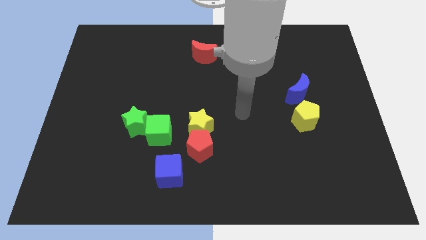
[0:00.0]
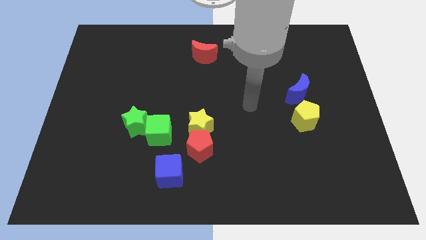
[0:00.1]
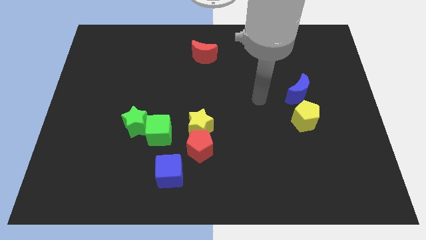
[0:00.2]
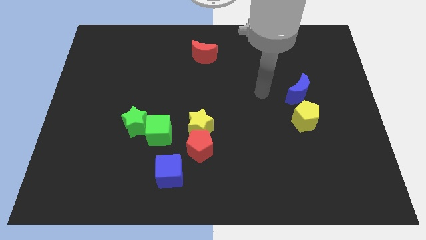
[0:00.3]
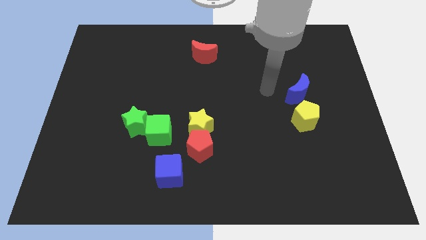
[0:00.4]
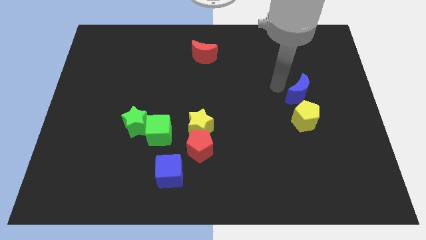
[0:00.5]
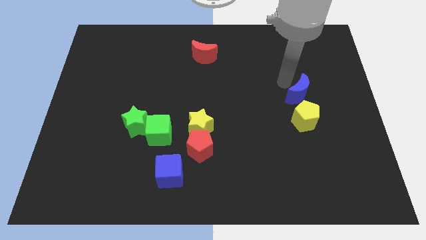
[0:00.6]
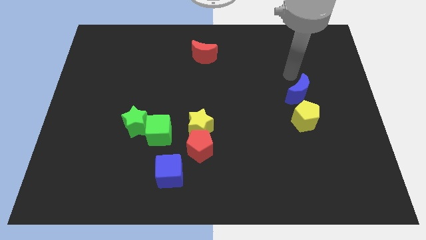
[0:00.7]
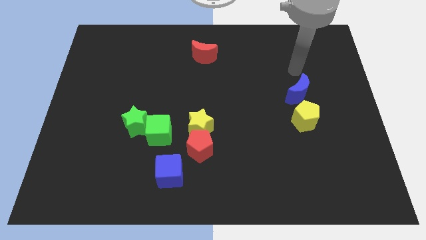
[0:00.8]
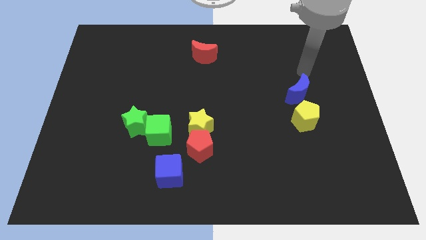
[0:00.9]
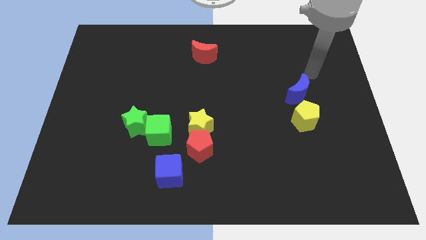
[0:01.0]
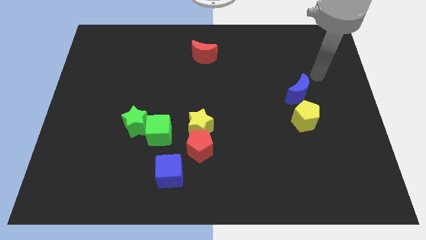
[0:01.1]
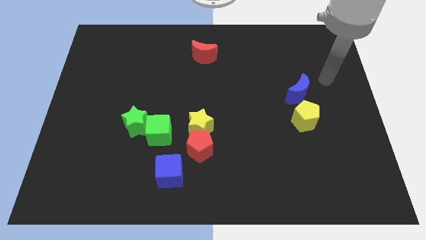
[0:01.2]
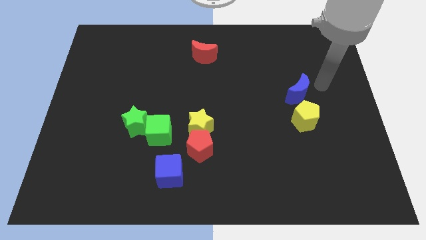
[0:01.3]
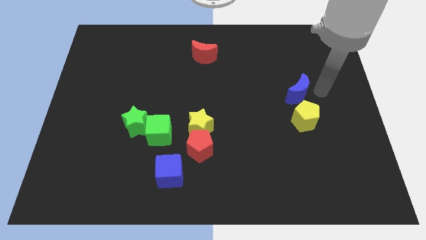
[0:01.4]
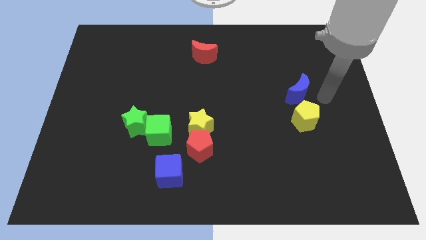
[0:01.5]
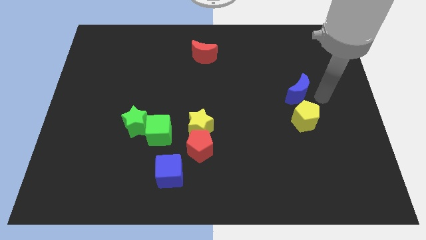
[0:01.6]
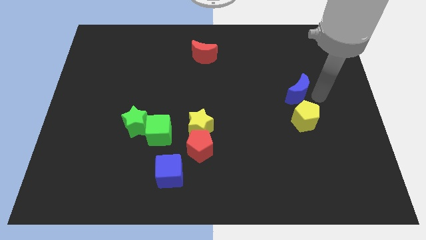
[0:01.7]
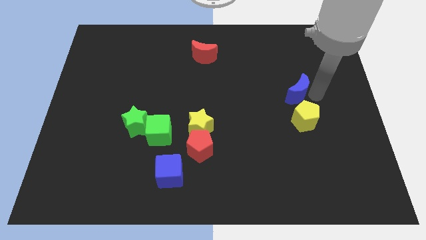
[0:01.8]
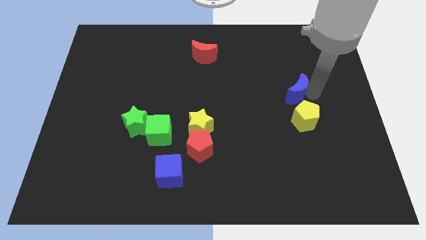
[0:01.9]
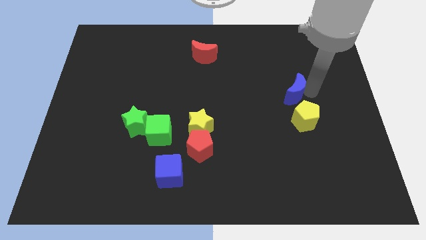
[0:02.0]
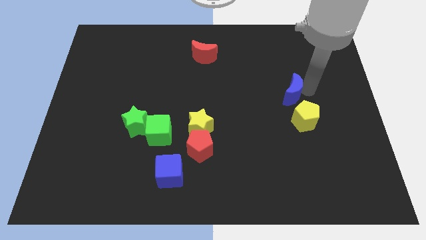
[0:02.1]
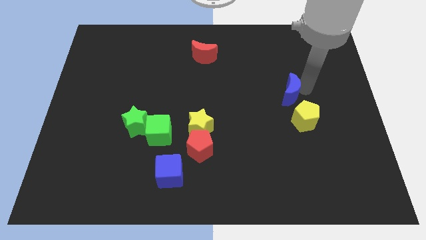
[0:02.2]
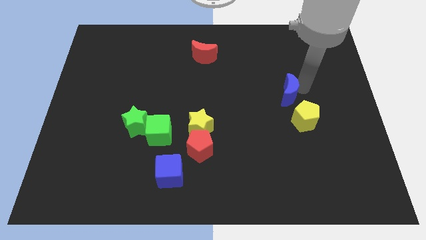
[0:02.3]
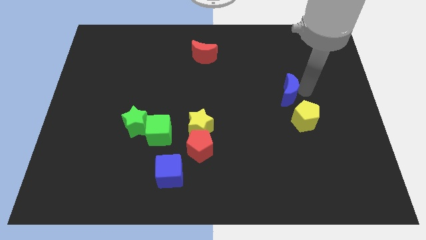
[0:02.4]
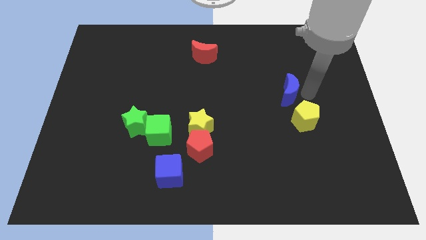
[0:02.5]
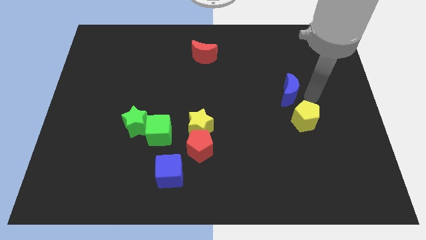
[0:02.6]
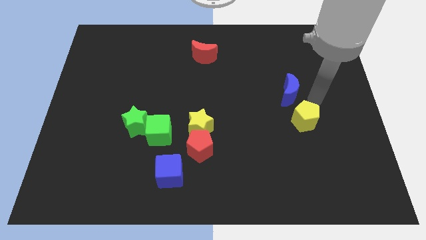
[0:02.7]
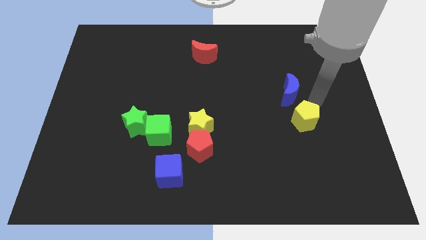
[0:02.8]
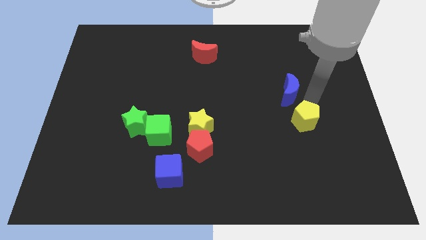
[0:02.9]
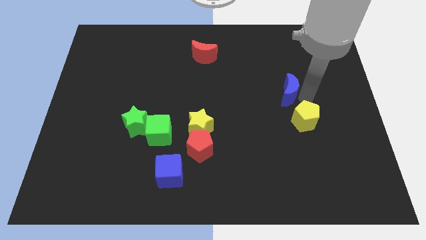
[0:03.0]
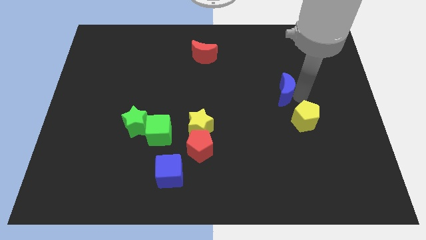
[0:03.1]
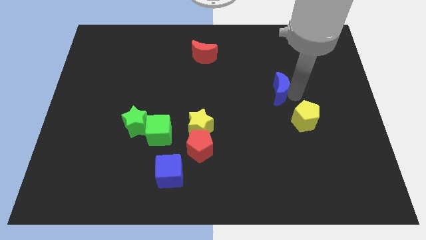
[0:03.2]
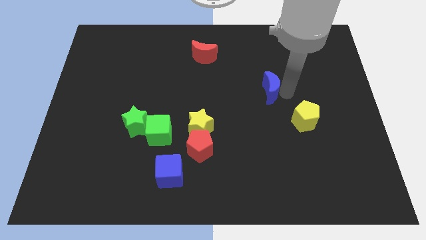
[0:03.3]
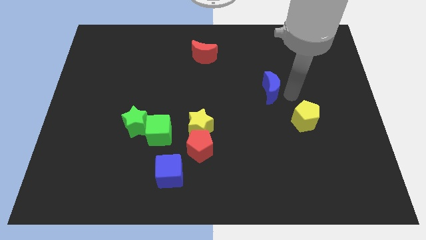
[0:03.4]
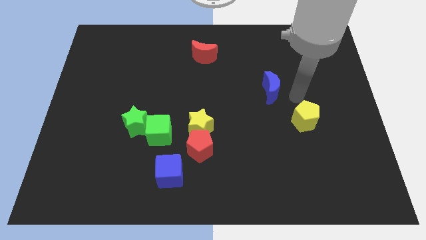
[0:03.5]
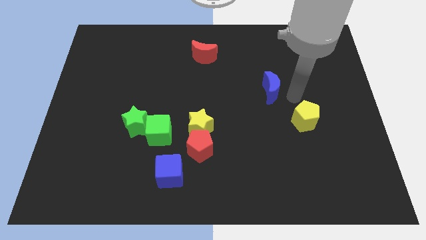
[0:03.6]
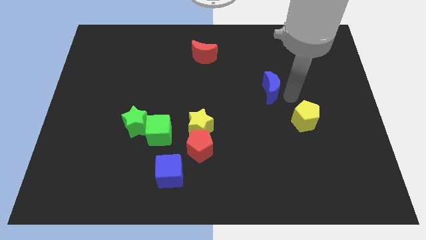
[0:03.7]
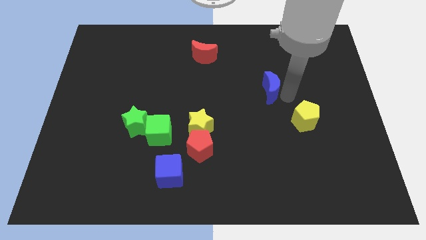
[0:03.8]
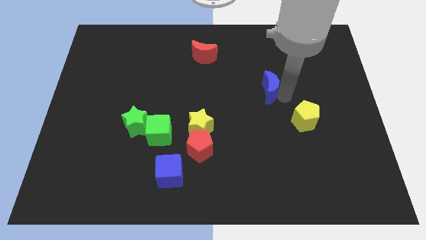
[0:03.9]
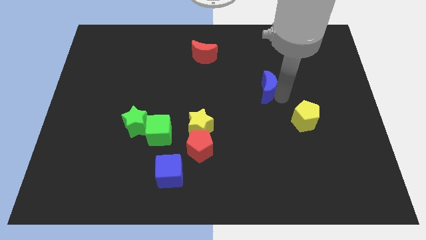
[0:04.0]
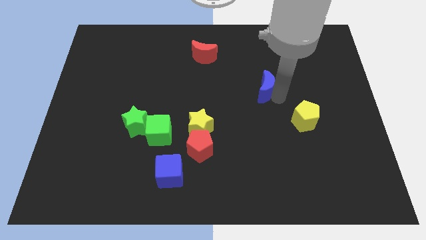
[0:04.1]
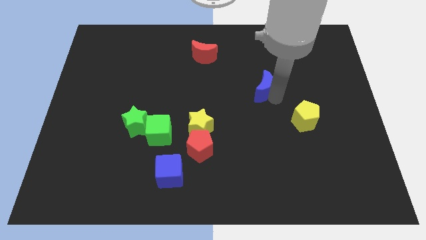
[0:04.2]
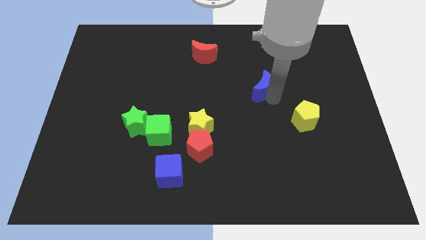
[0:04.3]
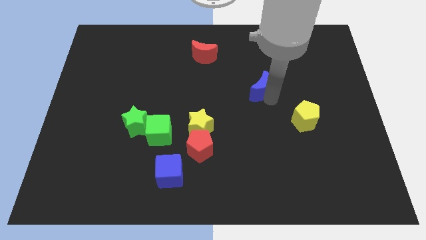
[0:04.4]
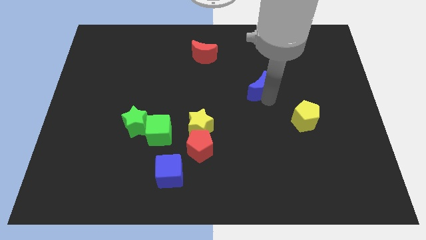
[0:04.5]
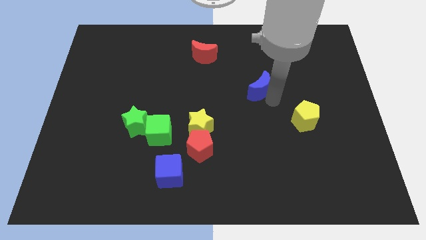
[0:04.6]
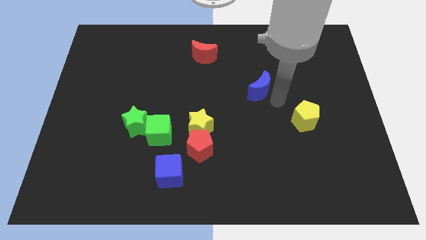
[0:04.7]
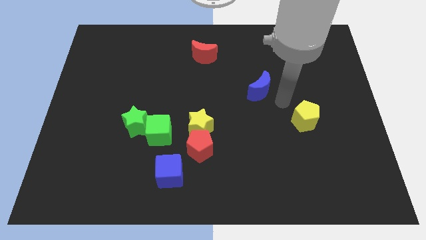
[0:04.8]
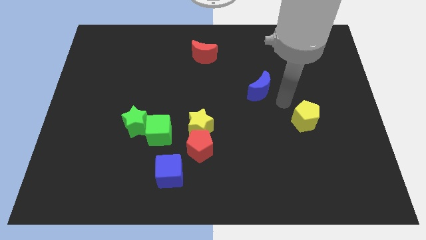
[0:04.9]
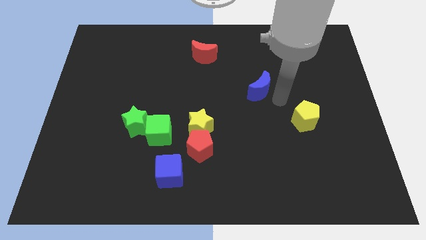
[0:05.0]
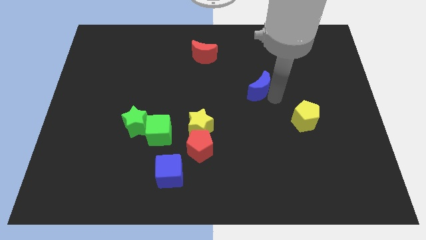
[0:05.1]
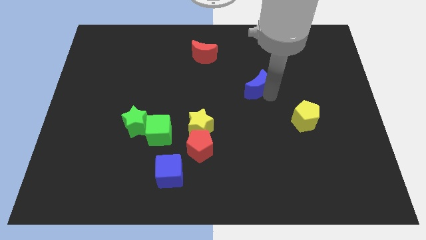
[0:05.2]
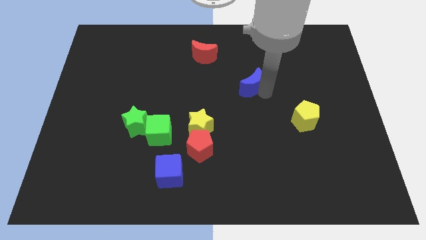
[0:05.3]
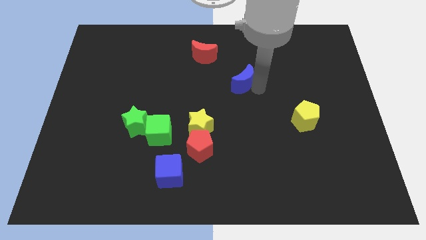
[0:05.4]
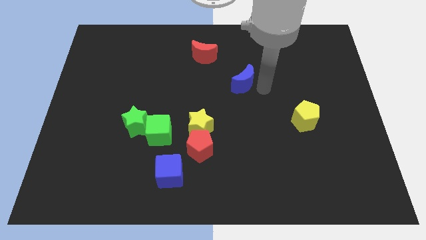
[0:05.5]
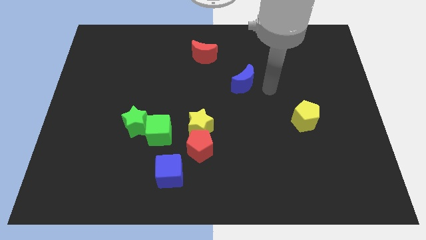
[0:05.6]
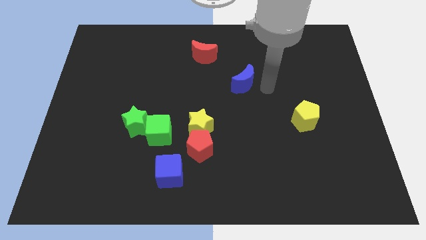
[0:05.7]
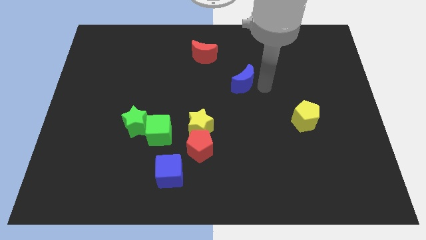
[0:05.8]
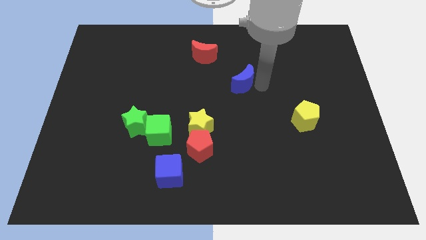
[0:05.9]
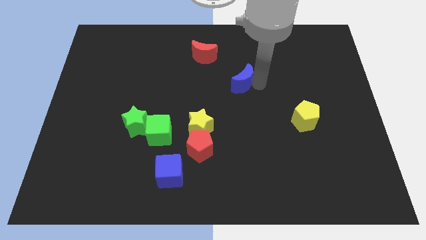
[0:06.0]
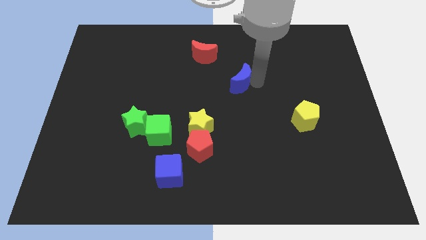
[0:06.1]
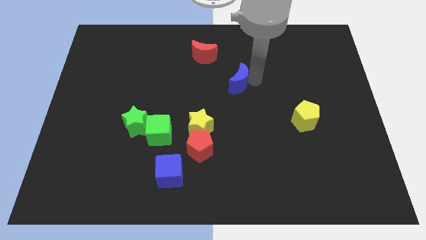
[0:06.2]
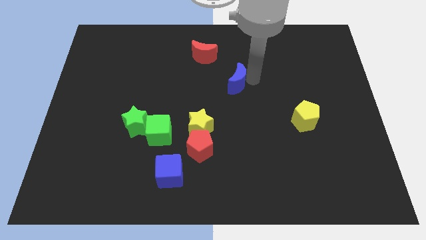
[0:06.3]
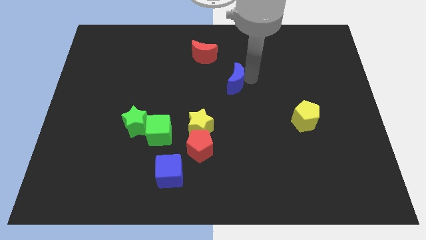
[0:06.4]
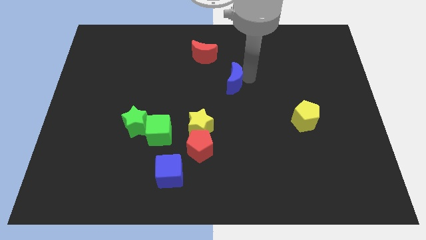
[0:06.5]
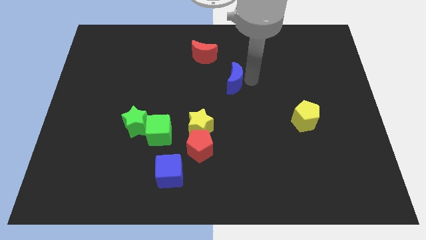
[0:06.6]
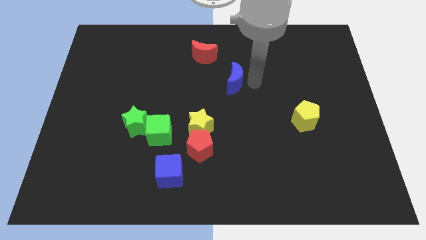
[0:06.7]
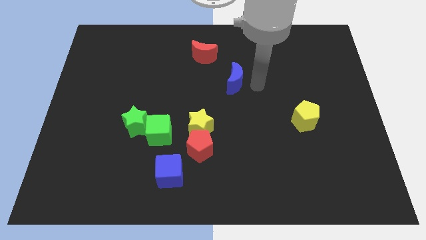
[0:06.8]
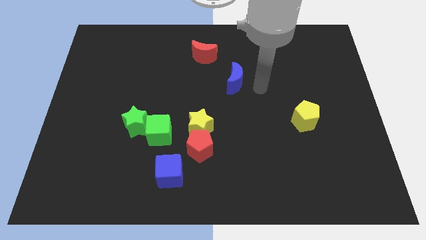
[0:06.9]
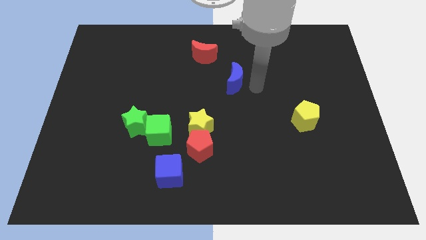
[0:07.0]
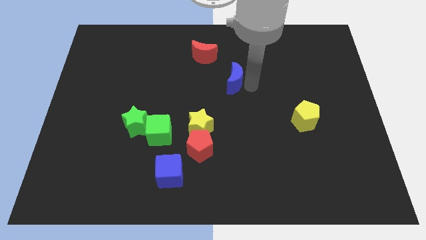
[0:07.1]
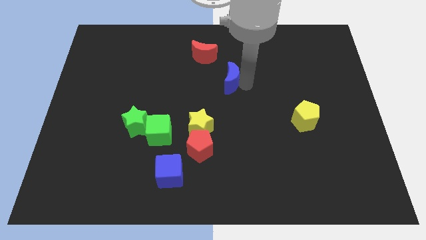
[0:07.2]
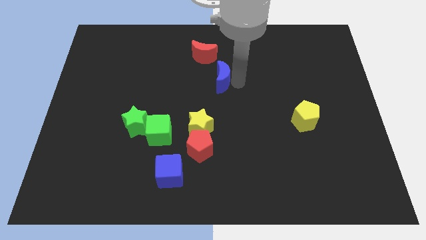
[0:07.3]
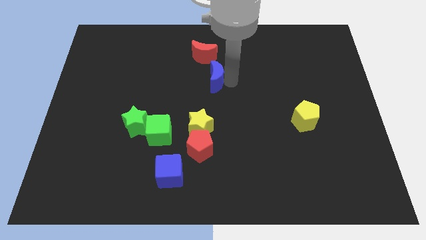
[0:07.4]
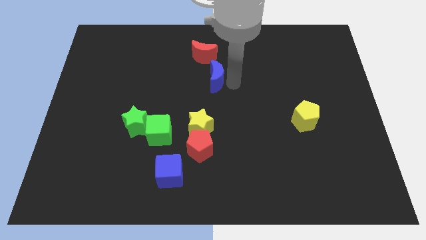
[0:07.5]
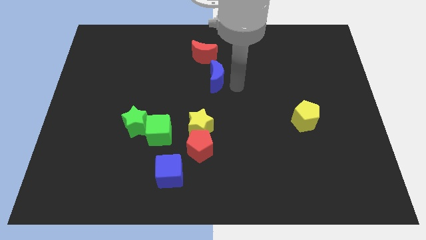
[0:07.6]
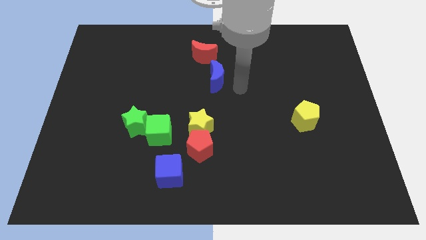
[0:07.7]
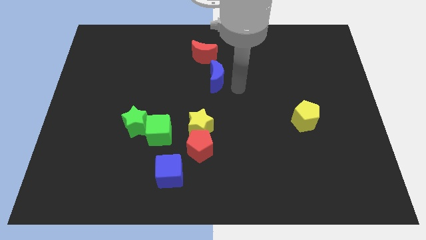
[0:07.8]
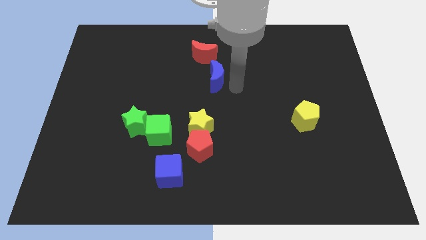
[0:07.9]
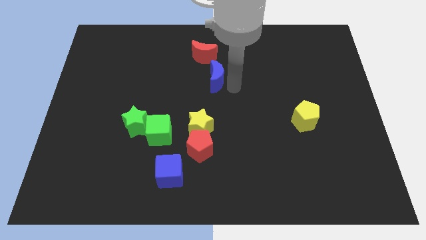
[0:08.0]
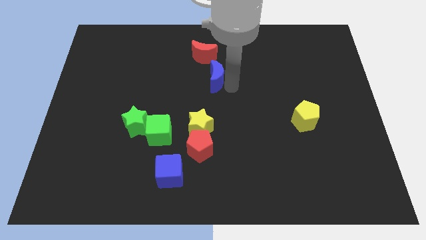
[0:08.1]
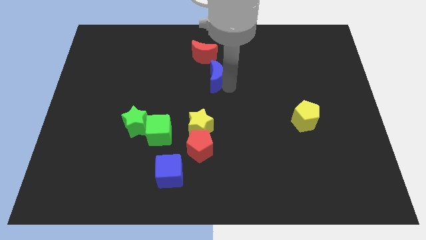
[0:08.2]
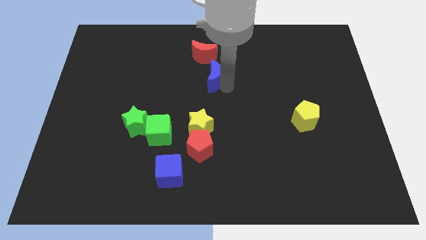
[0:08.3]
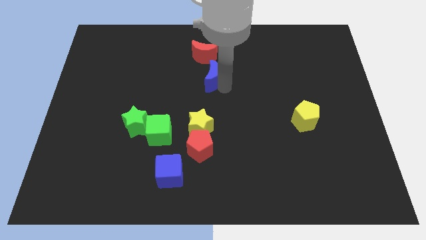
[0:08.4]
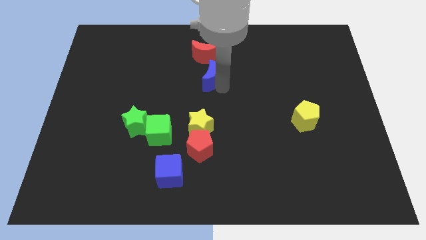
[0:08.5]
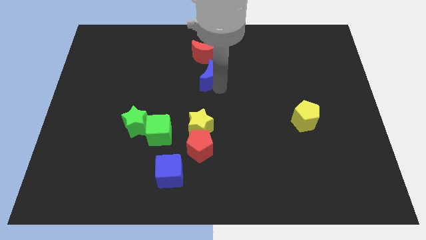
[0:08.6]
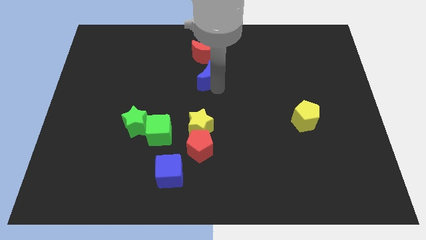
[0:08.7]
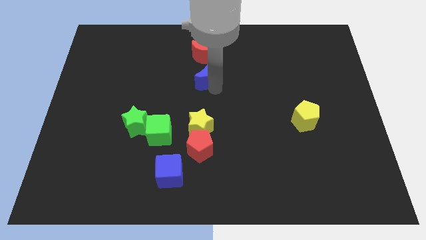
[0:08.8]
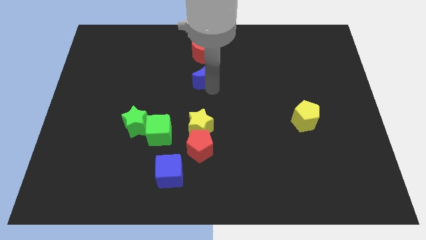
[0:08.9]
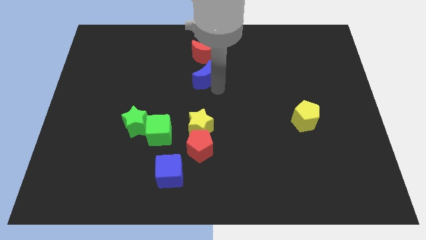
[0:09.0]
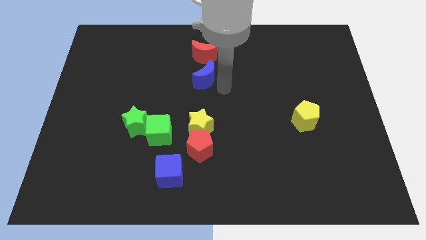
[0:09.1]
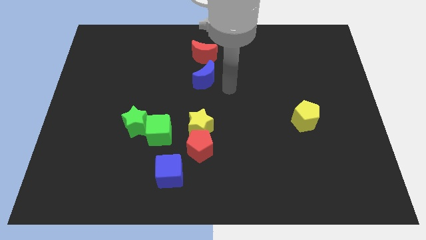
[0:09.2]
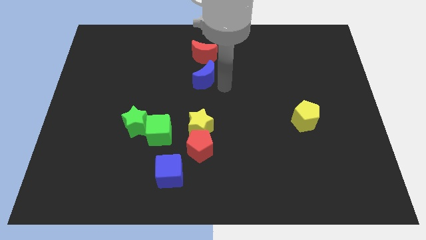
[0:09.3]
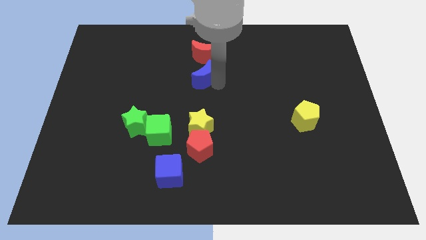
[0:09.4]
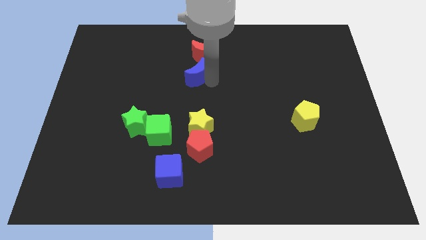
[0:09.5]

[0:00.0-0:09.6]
move the blue moon to the bottom left of the red moon
